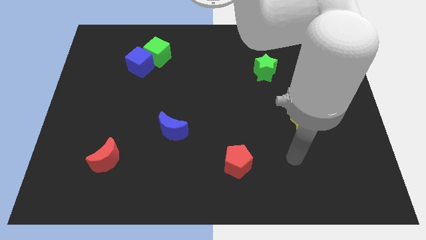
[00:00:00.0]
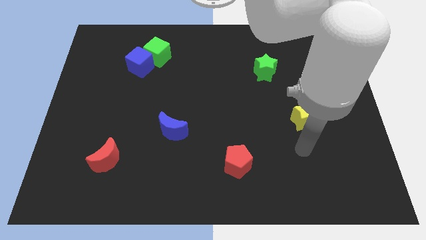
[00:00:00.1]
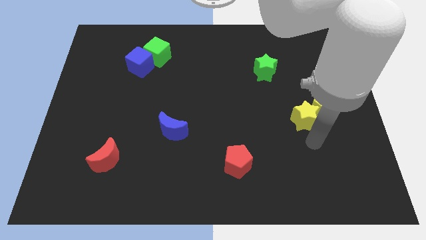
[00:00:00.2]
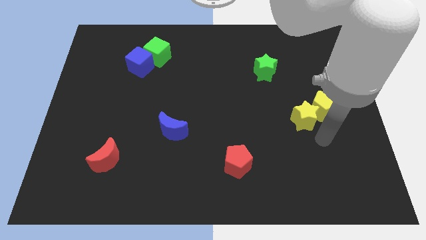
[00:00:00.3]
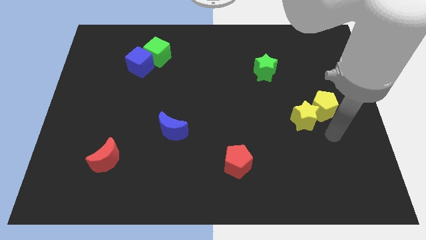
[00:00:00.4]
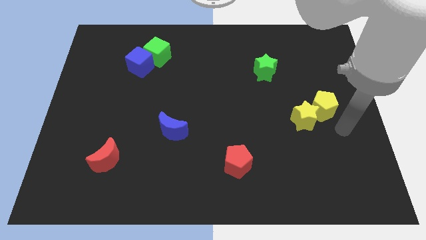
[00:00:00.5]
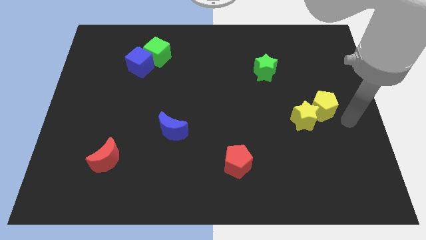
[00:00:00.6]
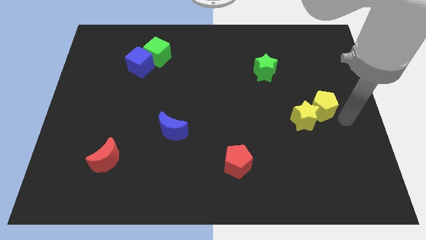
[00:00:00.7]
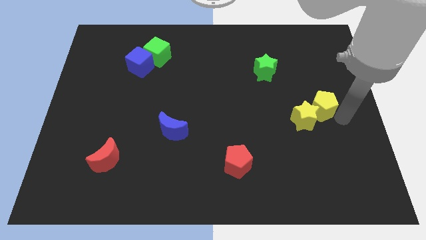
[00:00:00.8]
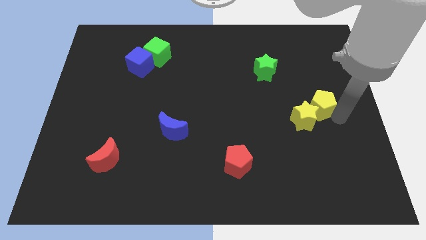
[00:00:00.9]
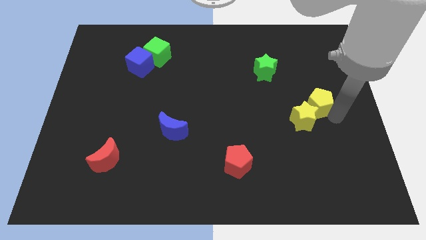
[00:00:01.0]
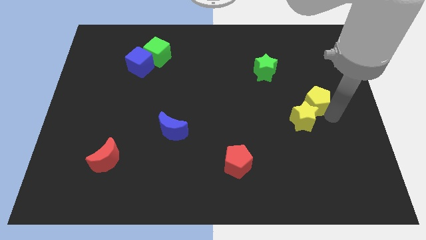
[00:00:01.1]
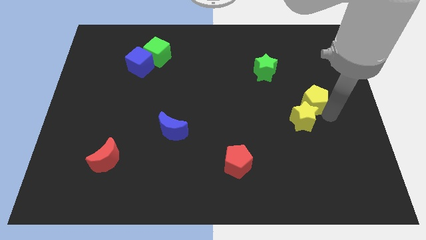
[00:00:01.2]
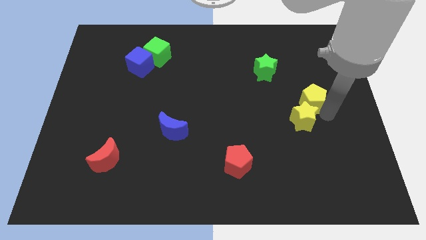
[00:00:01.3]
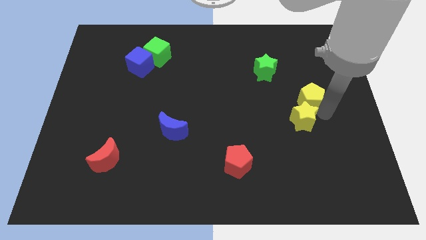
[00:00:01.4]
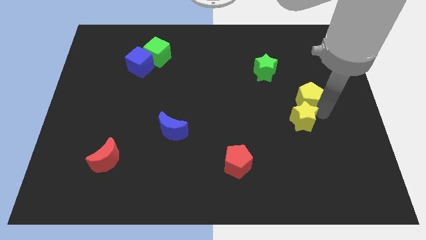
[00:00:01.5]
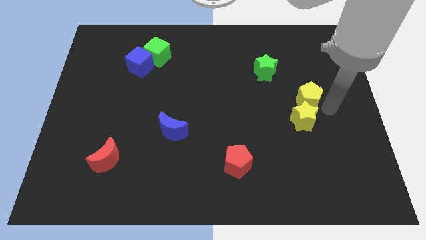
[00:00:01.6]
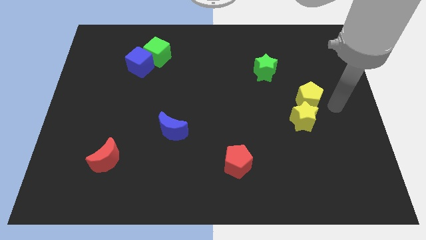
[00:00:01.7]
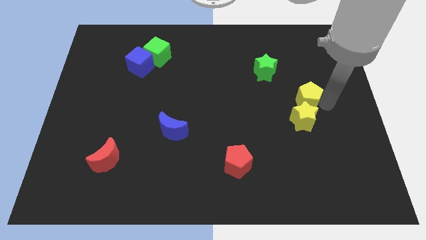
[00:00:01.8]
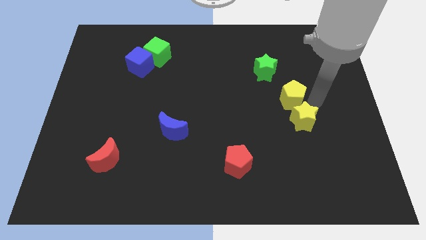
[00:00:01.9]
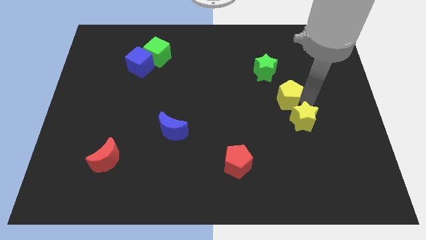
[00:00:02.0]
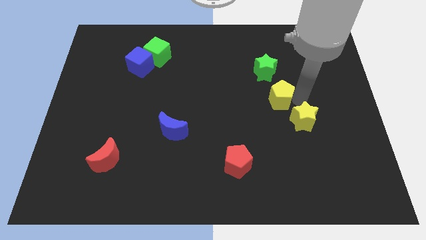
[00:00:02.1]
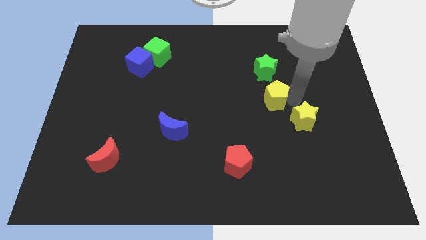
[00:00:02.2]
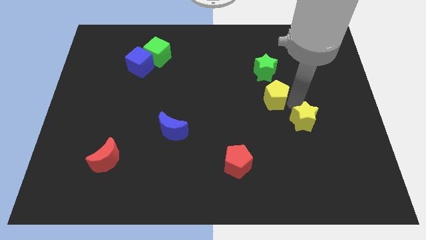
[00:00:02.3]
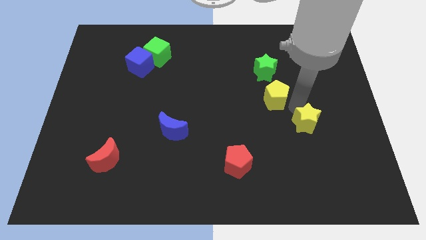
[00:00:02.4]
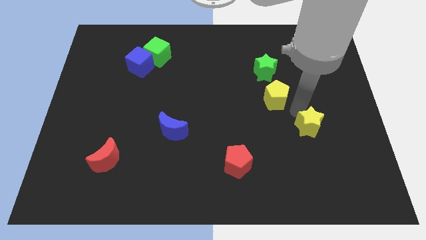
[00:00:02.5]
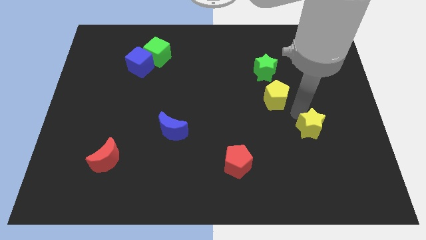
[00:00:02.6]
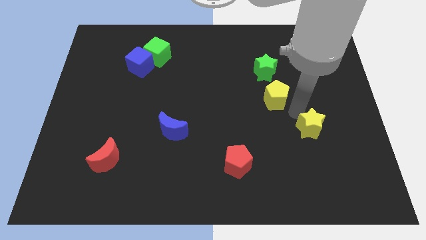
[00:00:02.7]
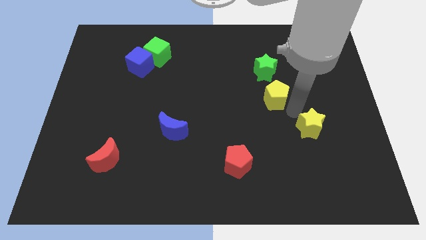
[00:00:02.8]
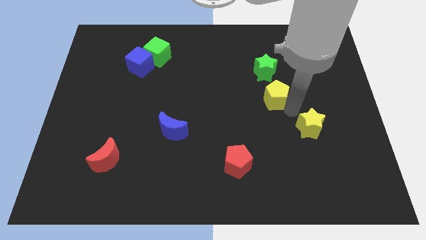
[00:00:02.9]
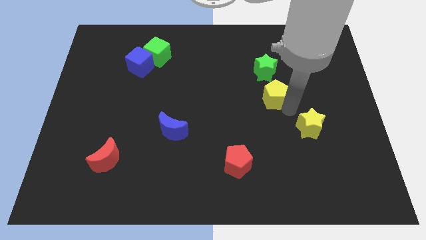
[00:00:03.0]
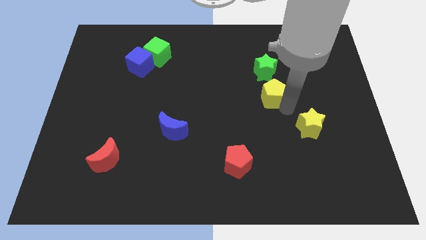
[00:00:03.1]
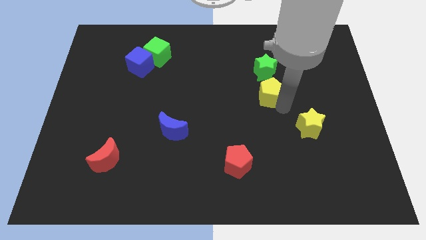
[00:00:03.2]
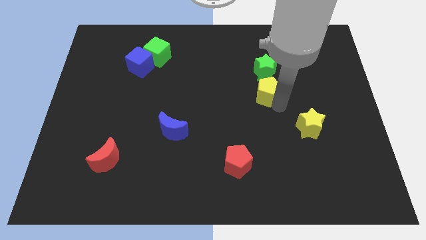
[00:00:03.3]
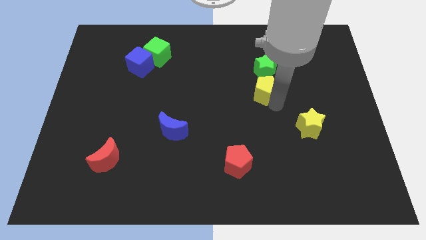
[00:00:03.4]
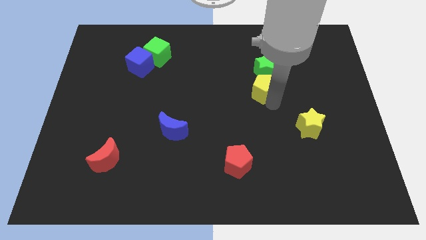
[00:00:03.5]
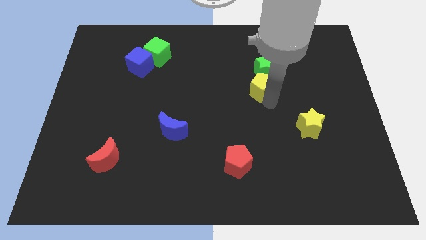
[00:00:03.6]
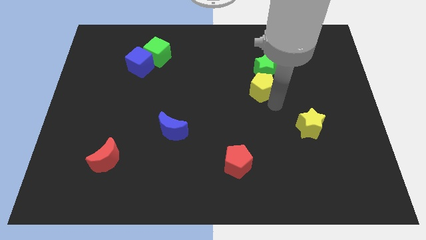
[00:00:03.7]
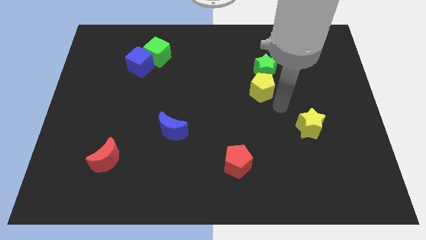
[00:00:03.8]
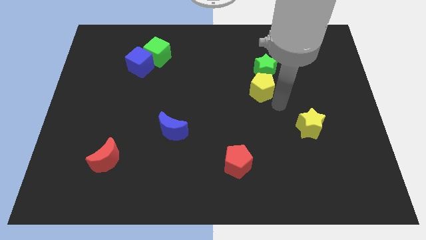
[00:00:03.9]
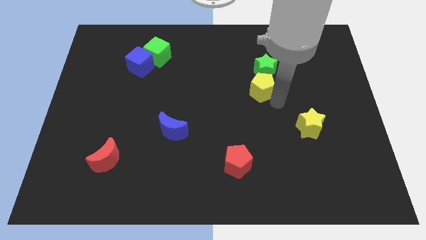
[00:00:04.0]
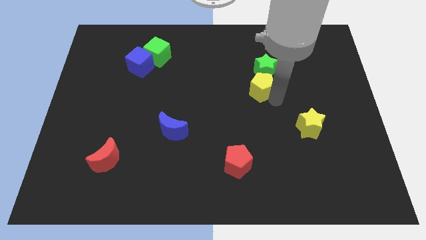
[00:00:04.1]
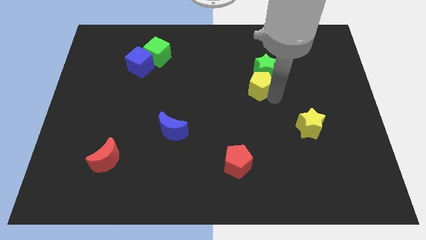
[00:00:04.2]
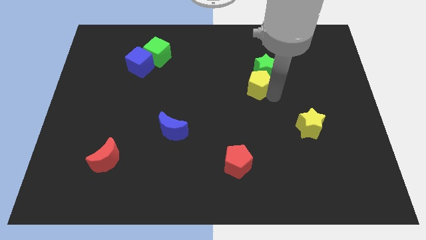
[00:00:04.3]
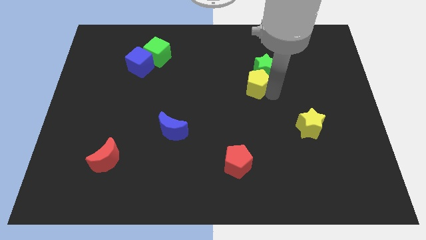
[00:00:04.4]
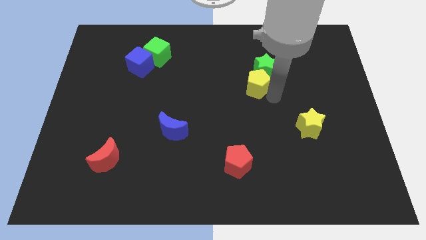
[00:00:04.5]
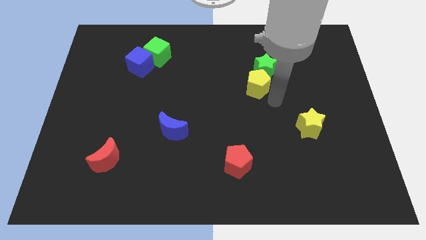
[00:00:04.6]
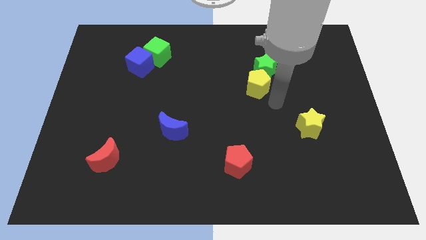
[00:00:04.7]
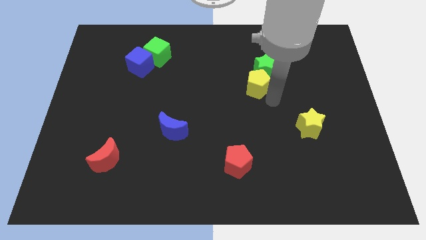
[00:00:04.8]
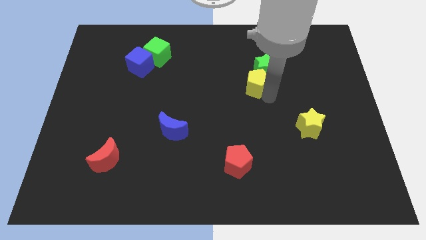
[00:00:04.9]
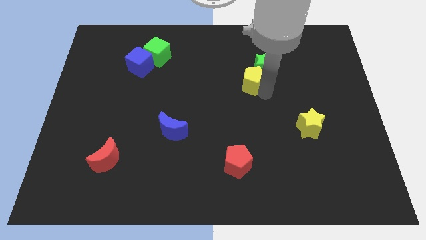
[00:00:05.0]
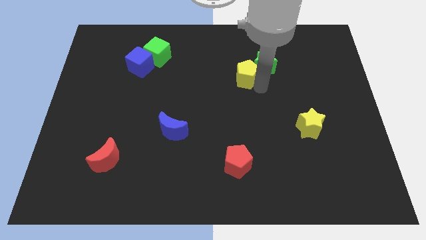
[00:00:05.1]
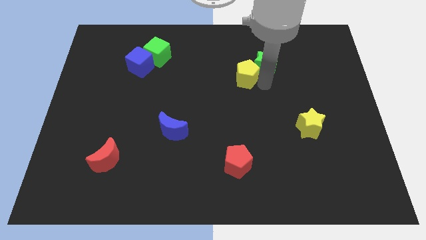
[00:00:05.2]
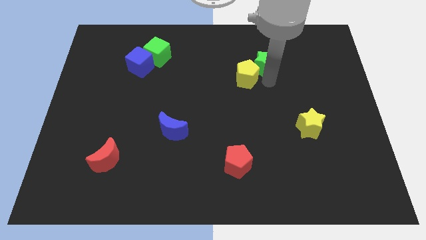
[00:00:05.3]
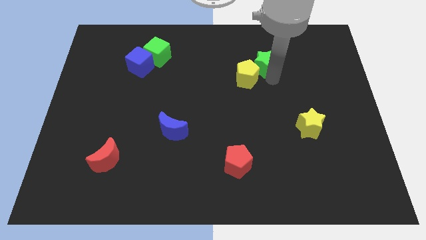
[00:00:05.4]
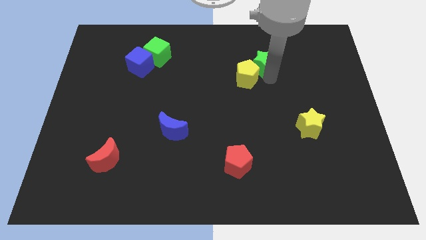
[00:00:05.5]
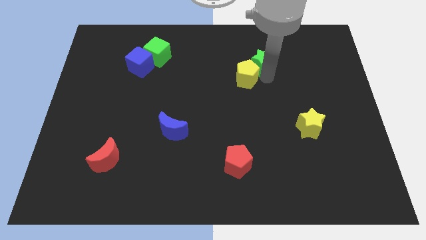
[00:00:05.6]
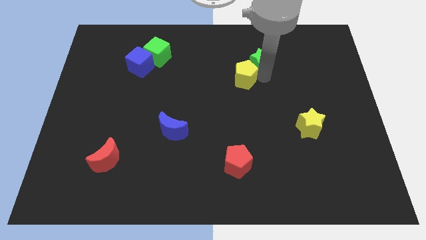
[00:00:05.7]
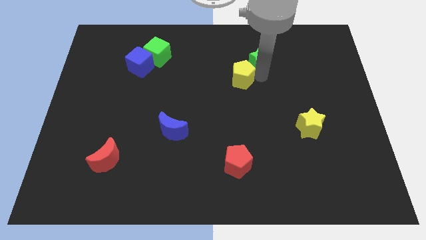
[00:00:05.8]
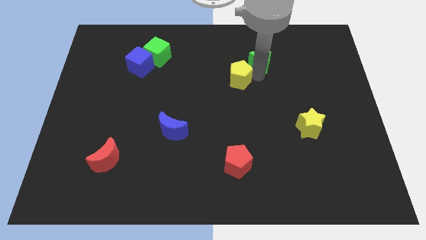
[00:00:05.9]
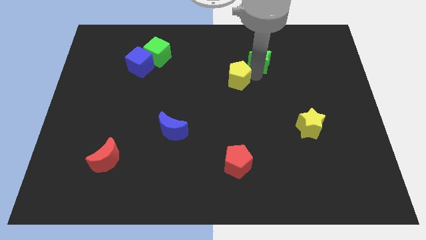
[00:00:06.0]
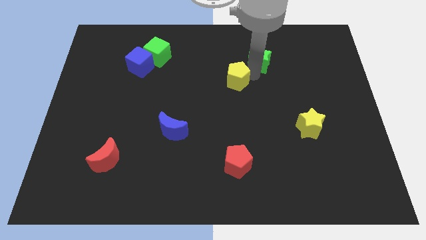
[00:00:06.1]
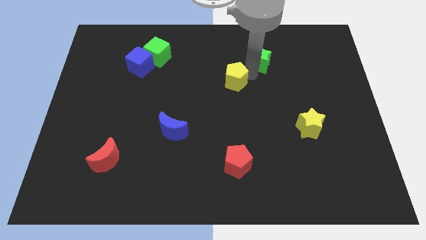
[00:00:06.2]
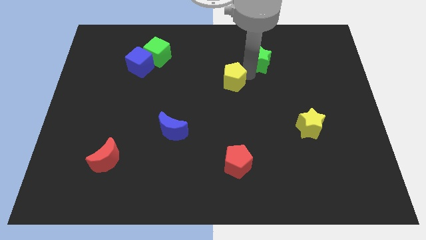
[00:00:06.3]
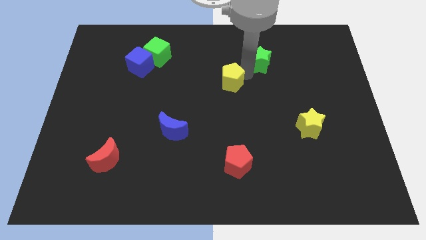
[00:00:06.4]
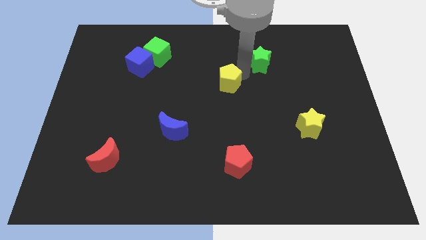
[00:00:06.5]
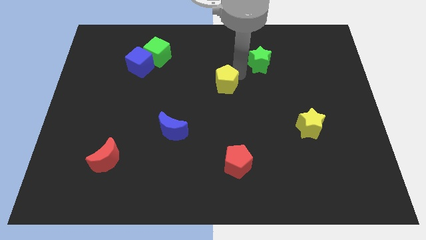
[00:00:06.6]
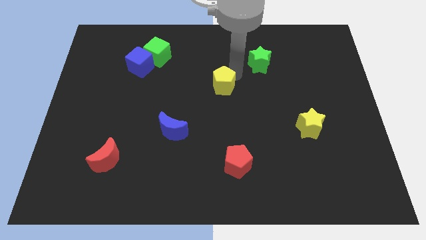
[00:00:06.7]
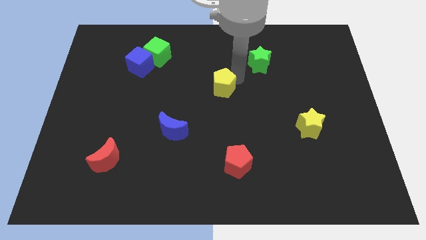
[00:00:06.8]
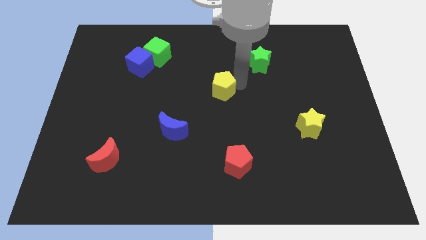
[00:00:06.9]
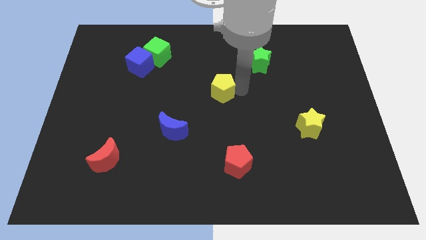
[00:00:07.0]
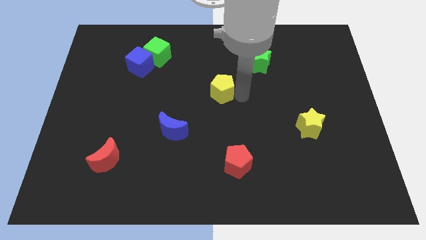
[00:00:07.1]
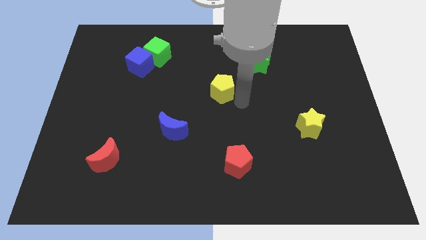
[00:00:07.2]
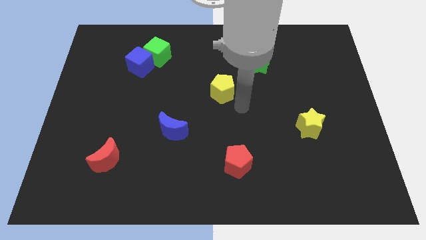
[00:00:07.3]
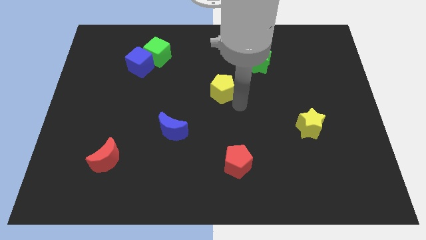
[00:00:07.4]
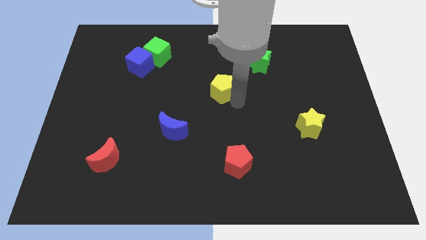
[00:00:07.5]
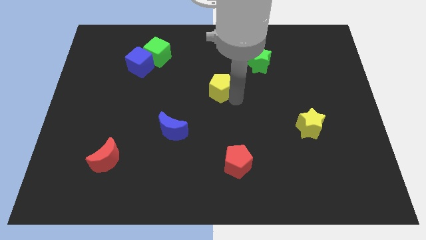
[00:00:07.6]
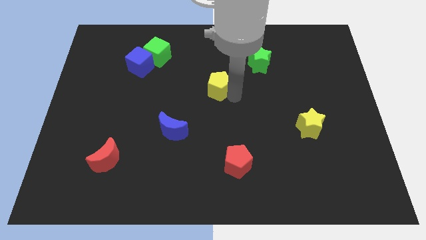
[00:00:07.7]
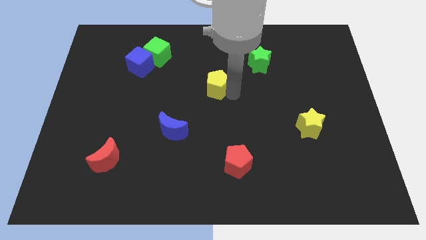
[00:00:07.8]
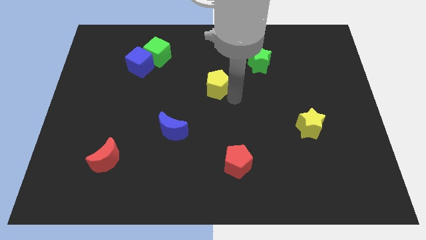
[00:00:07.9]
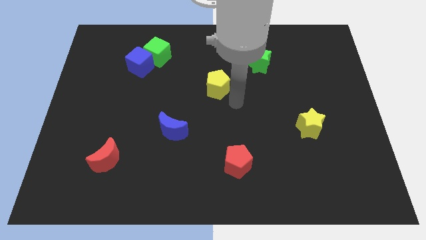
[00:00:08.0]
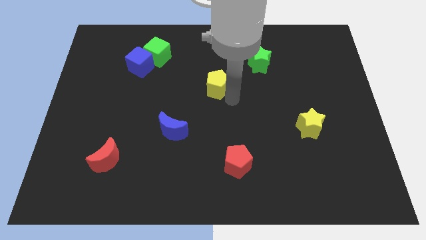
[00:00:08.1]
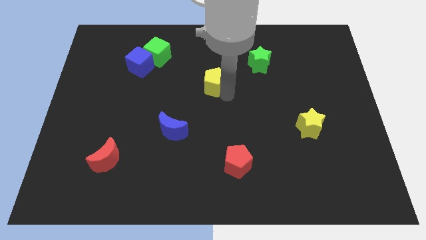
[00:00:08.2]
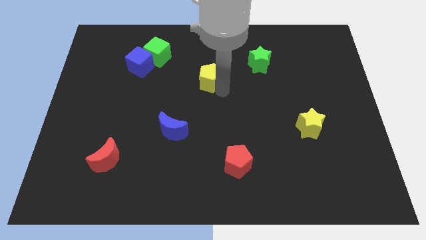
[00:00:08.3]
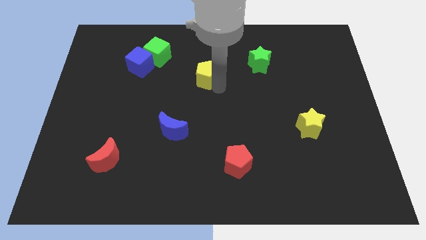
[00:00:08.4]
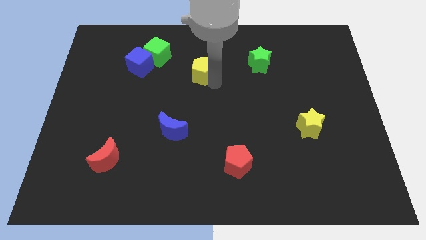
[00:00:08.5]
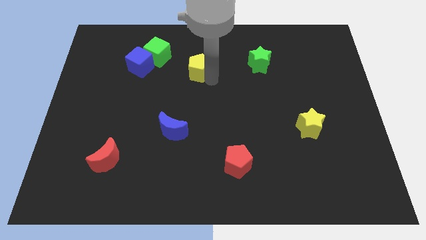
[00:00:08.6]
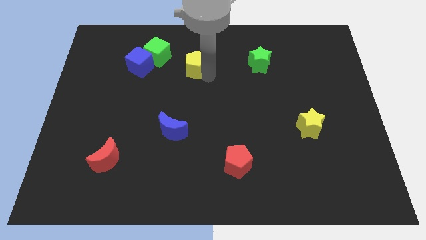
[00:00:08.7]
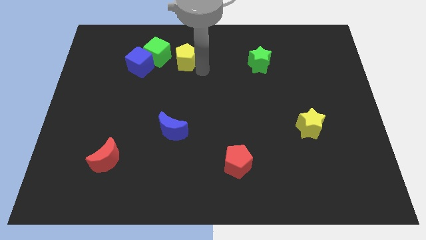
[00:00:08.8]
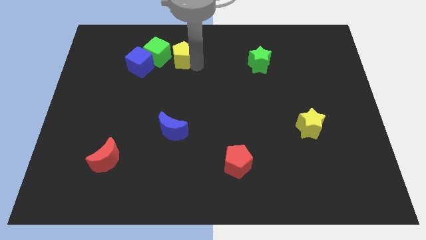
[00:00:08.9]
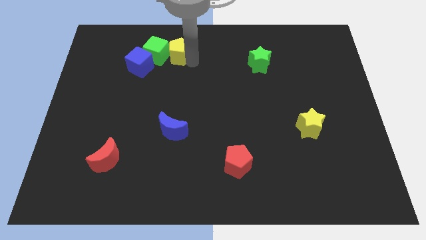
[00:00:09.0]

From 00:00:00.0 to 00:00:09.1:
slide the yellow pentagon to the green cube
